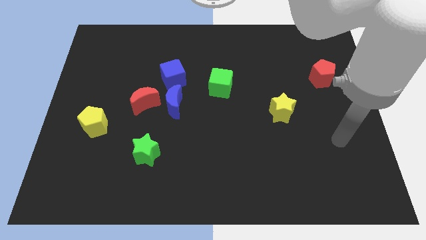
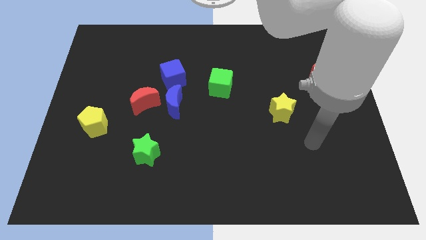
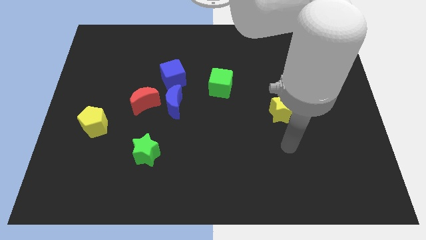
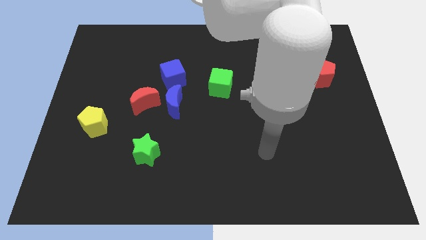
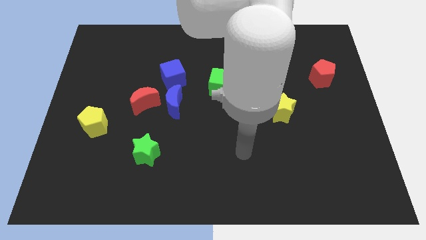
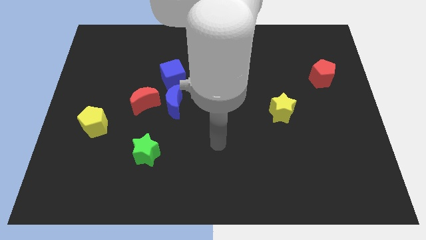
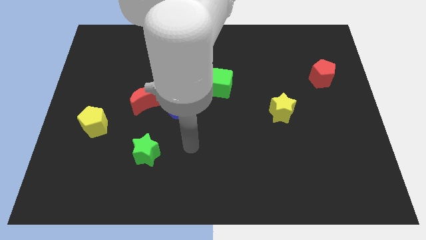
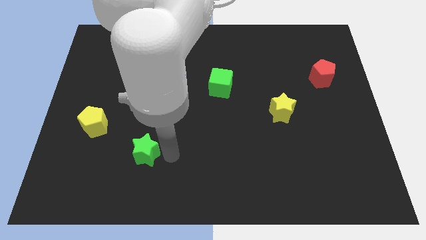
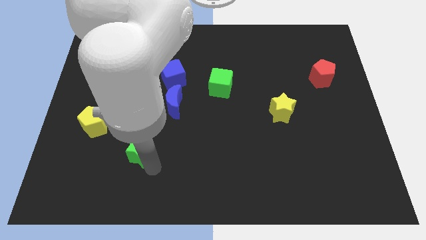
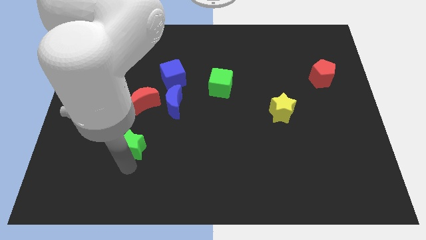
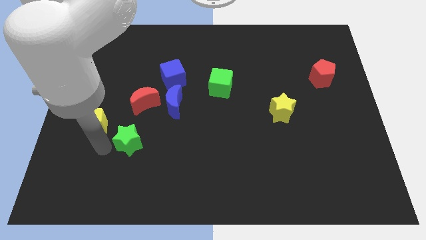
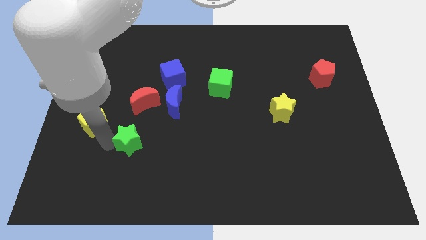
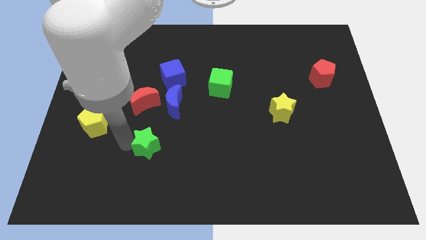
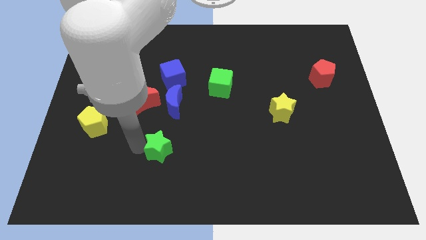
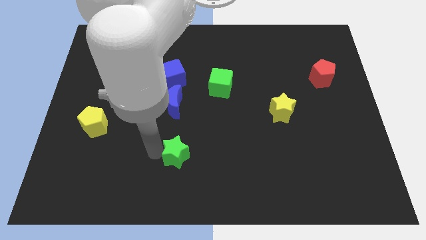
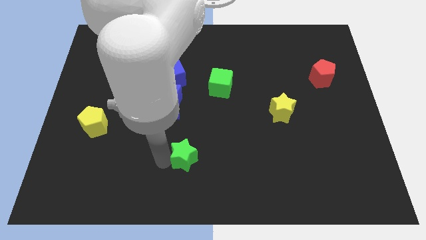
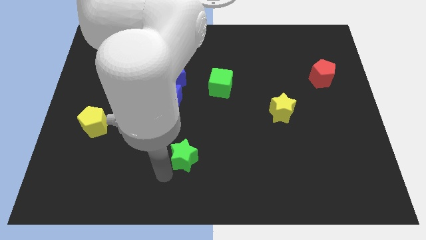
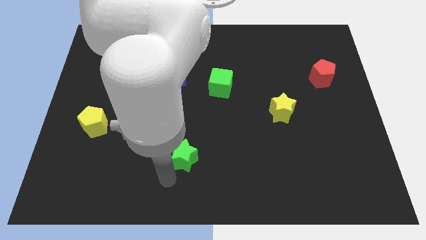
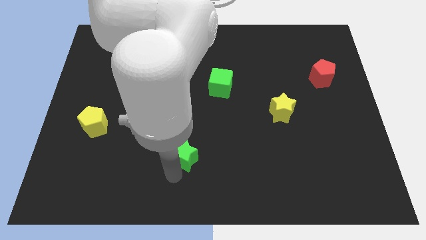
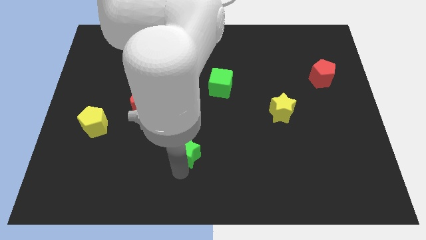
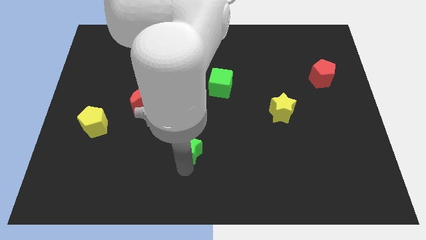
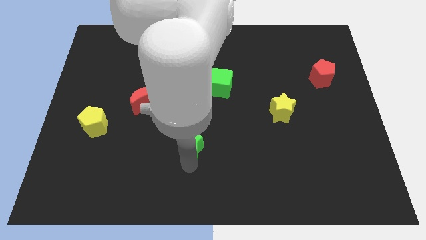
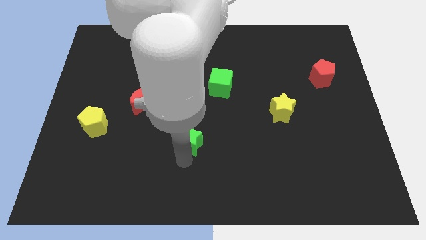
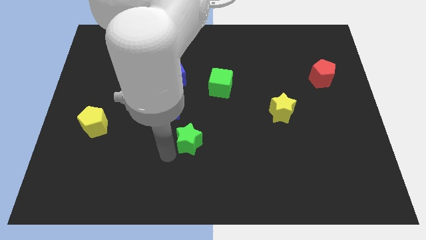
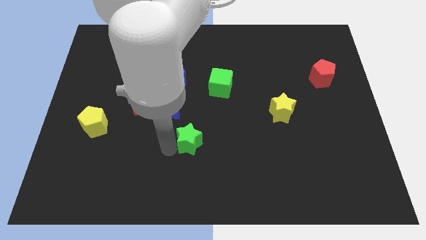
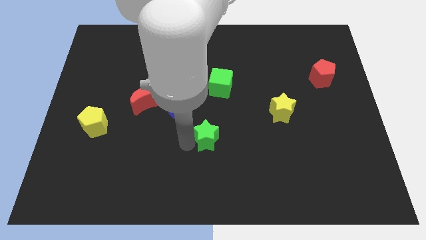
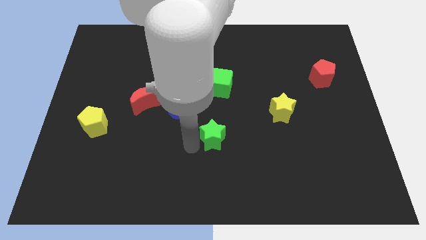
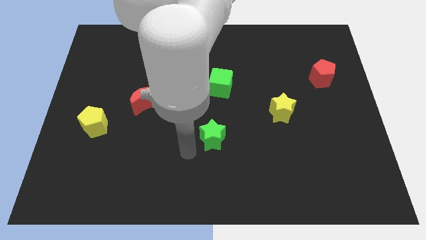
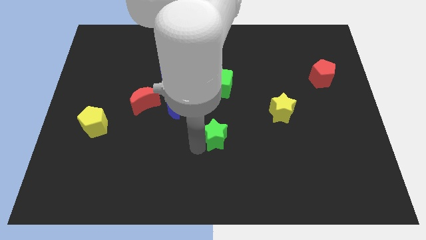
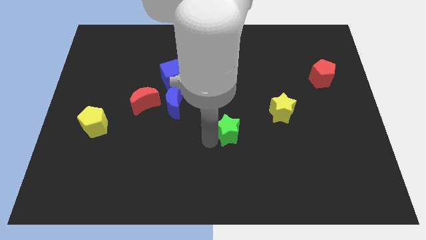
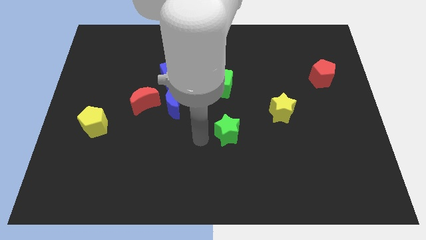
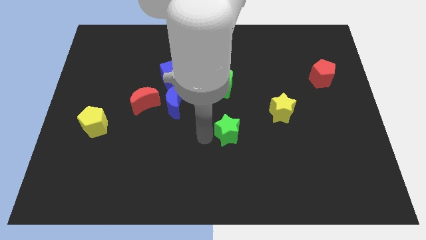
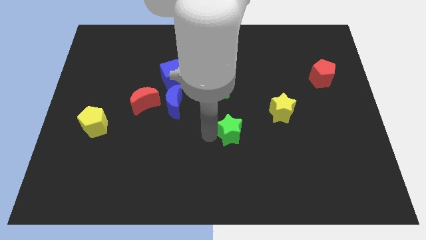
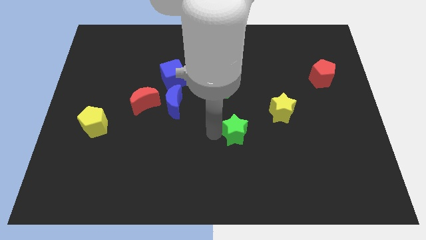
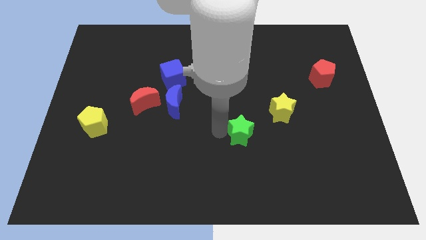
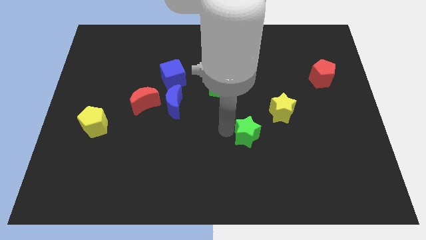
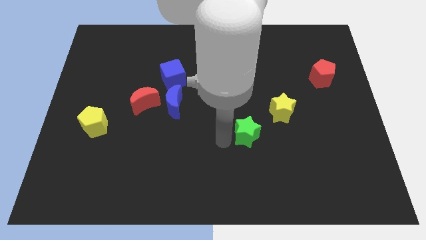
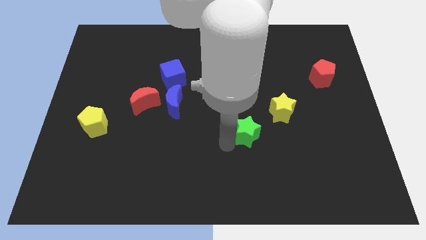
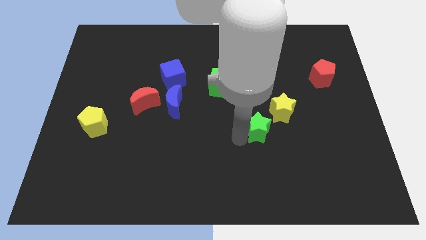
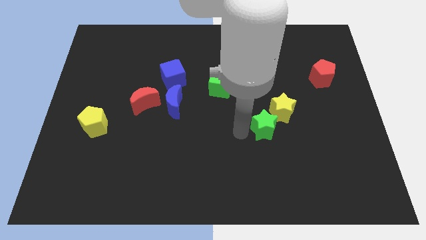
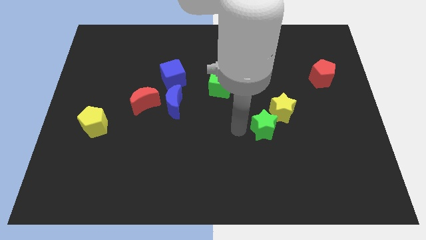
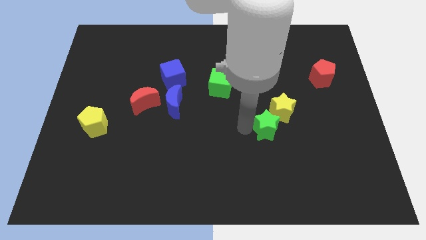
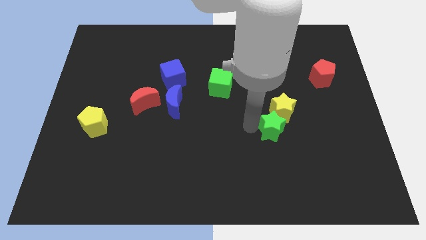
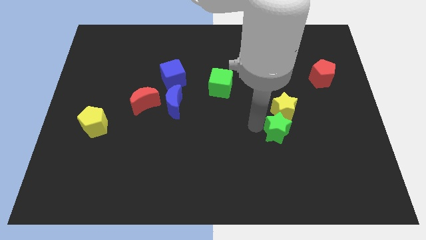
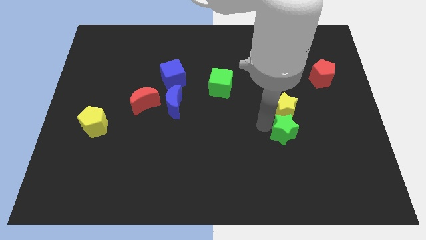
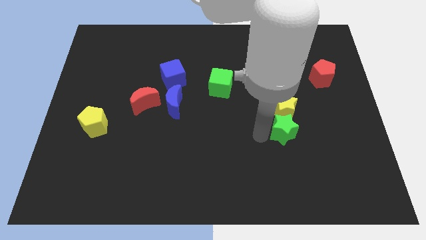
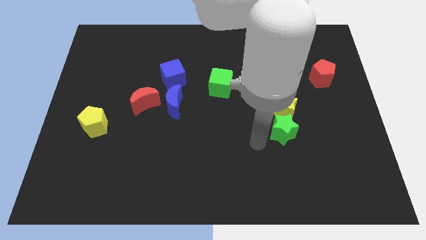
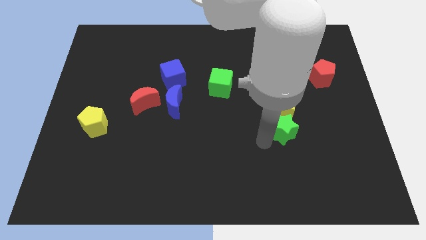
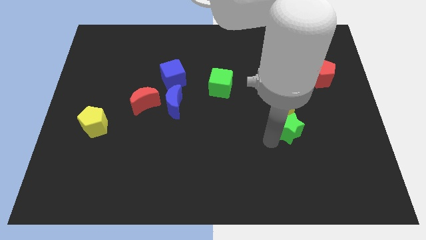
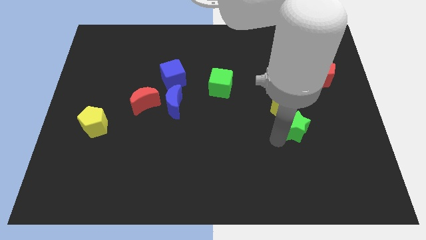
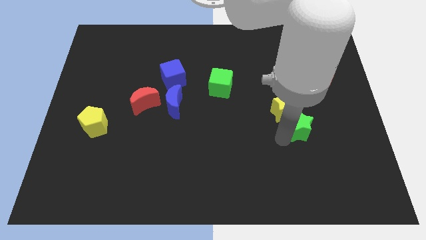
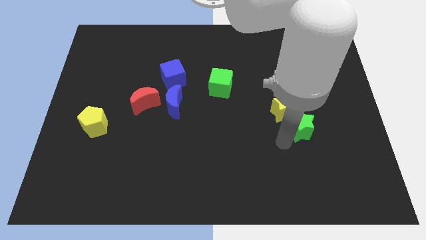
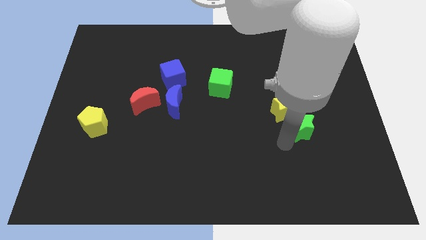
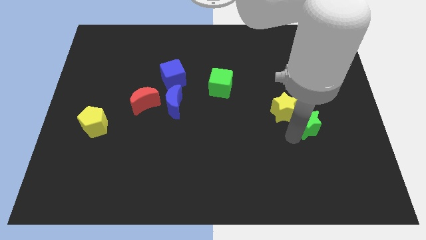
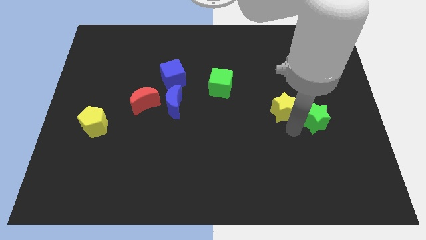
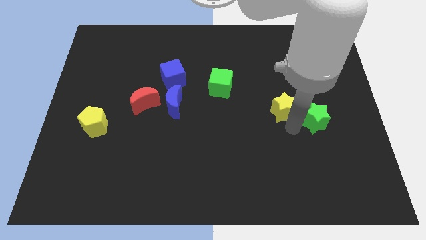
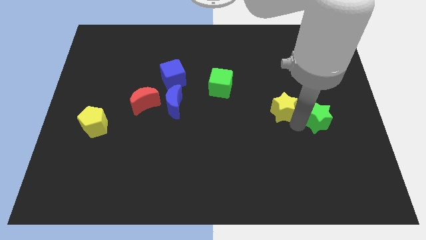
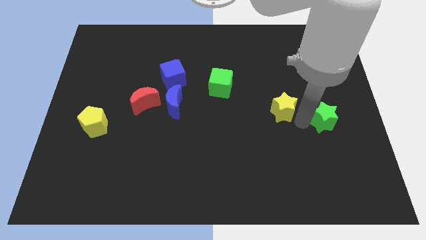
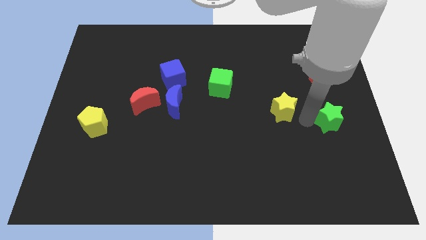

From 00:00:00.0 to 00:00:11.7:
move the green star to the center right
